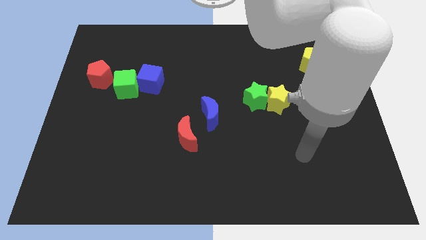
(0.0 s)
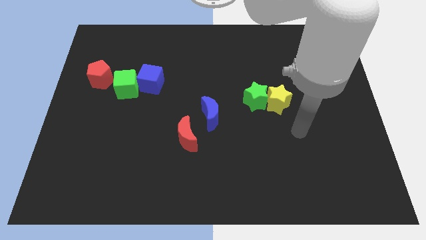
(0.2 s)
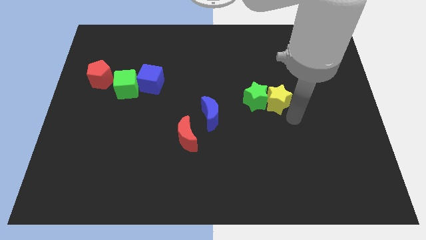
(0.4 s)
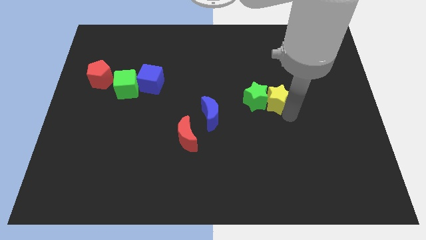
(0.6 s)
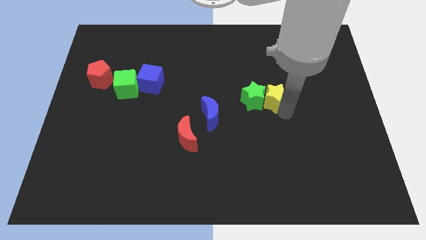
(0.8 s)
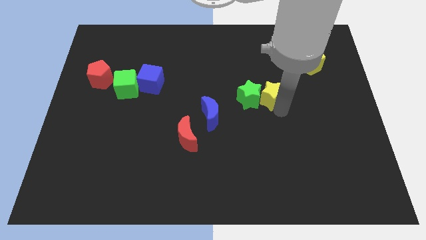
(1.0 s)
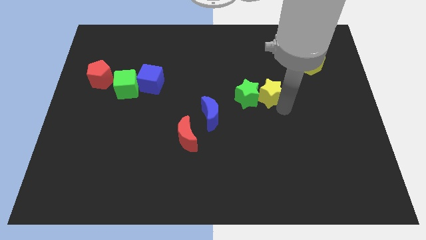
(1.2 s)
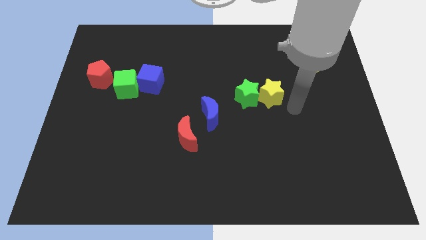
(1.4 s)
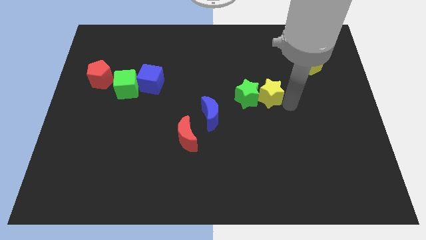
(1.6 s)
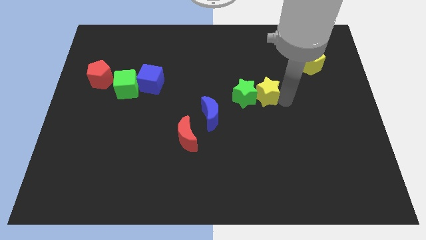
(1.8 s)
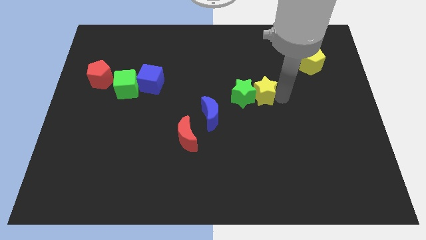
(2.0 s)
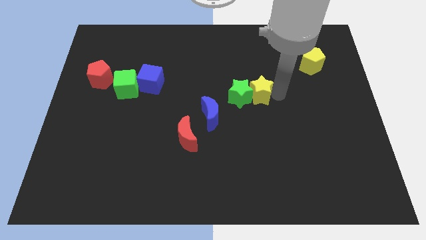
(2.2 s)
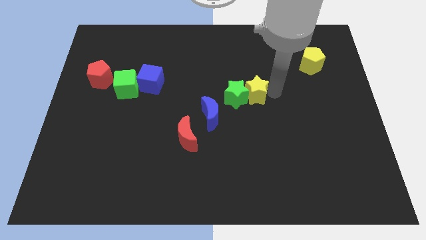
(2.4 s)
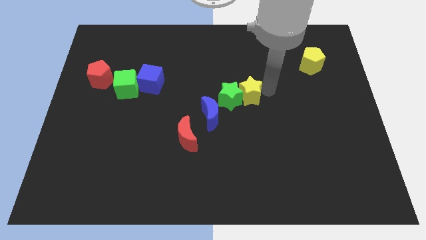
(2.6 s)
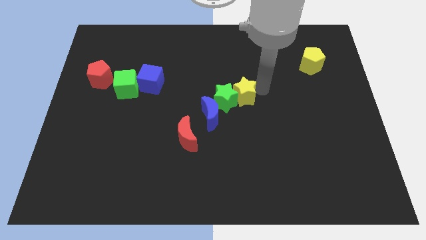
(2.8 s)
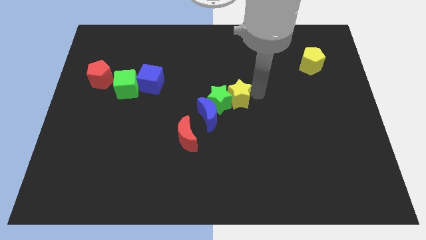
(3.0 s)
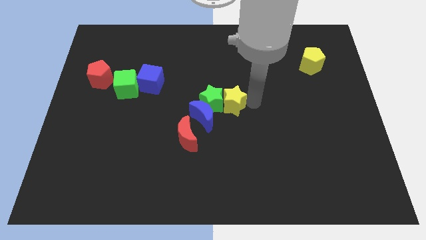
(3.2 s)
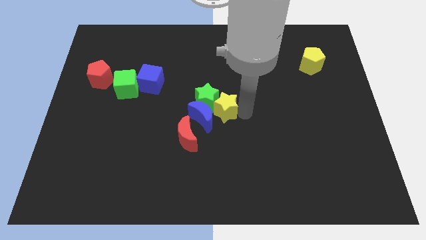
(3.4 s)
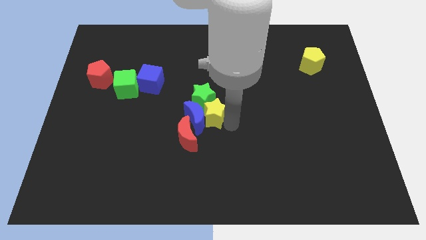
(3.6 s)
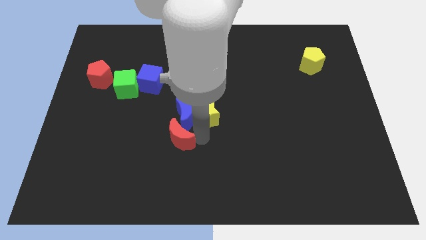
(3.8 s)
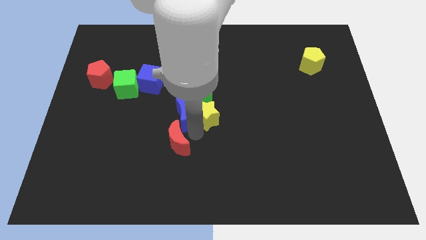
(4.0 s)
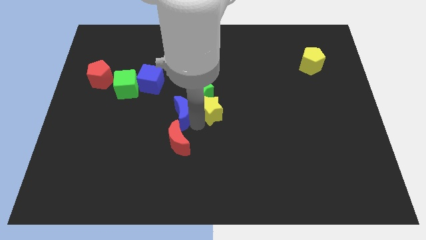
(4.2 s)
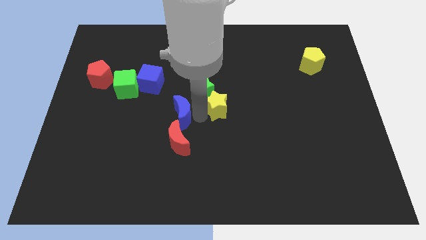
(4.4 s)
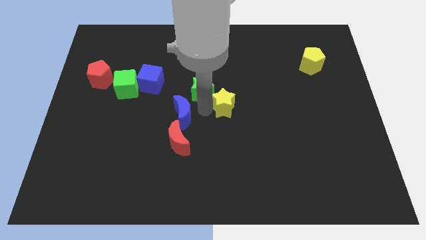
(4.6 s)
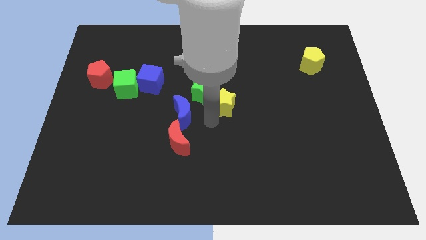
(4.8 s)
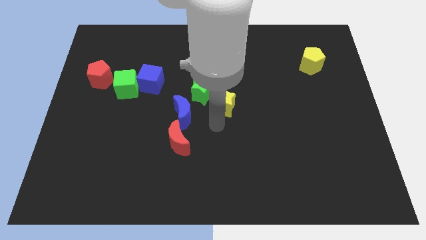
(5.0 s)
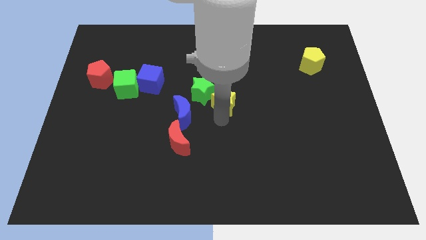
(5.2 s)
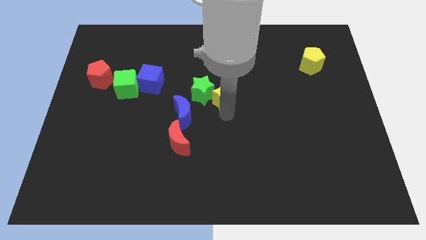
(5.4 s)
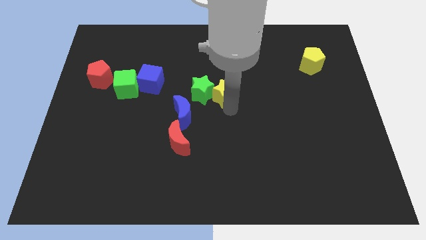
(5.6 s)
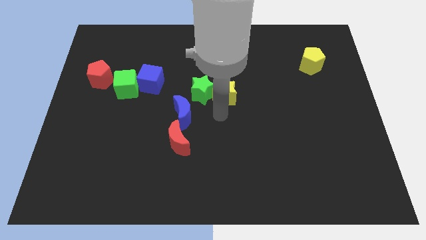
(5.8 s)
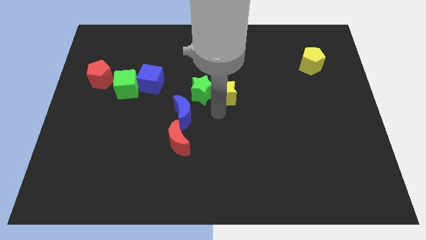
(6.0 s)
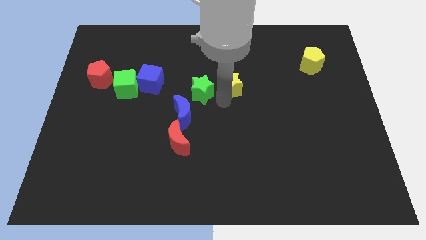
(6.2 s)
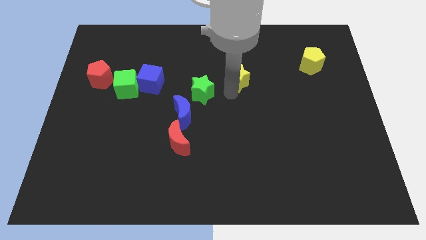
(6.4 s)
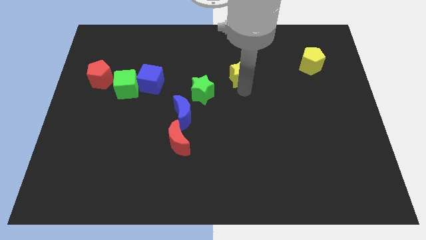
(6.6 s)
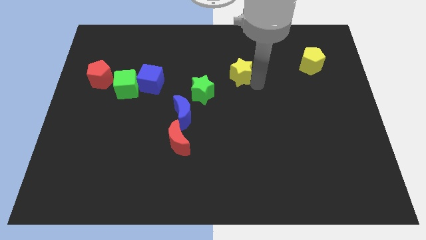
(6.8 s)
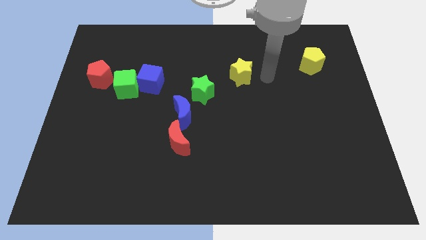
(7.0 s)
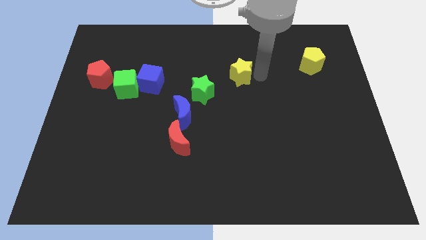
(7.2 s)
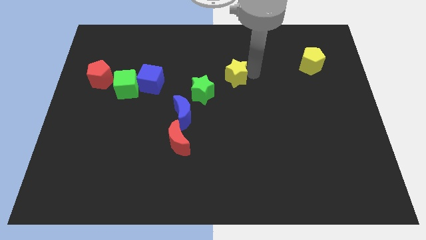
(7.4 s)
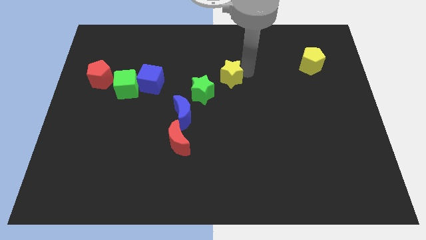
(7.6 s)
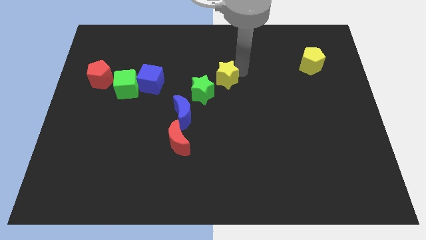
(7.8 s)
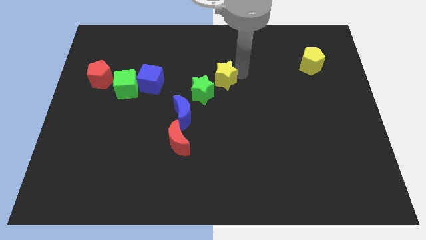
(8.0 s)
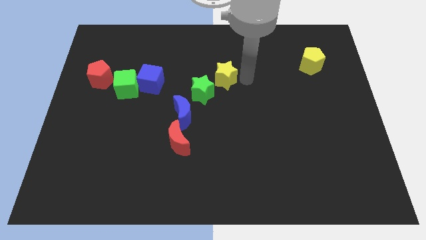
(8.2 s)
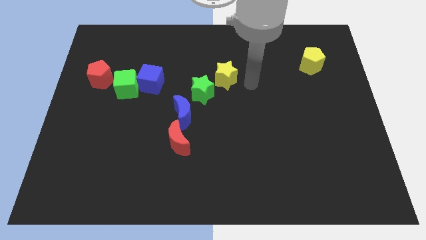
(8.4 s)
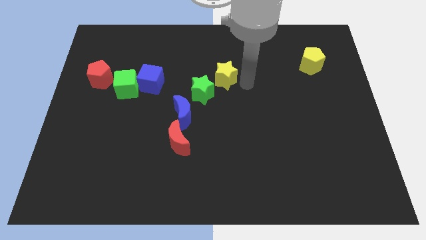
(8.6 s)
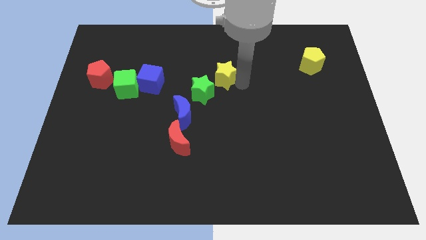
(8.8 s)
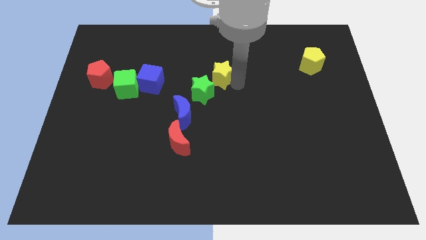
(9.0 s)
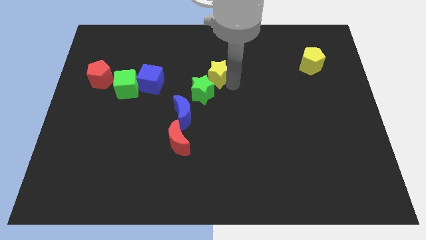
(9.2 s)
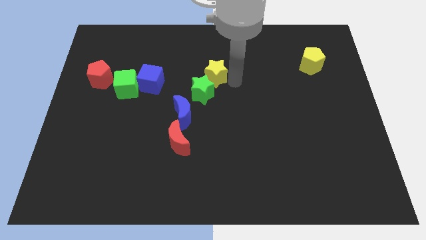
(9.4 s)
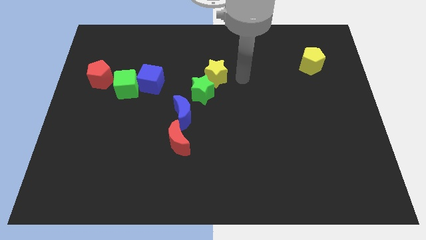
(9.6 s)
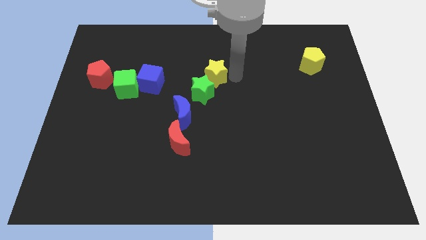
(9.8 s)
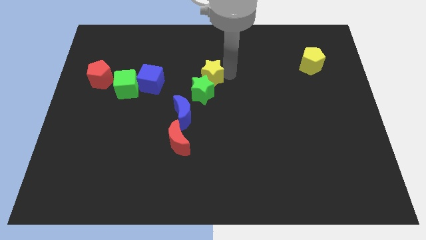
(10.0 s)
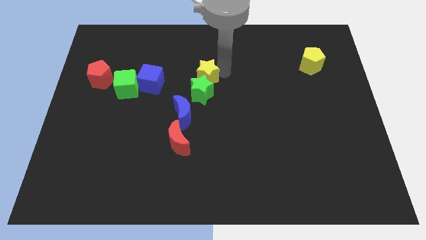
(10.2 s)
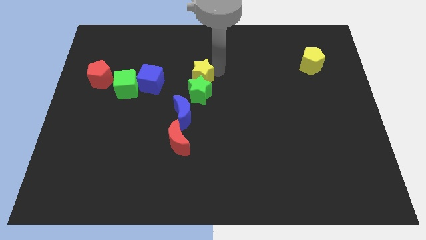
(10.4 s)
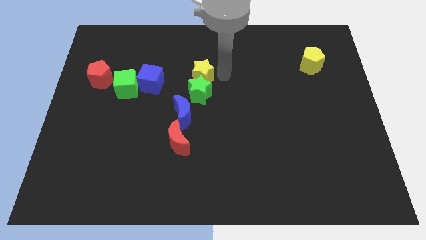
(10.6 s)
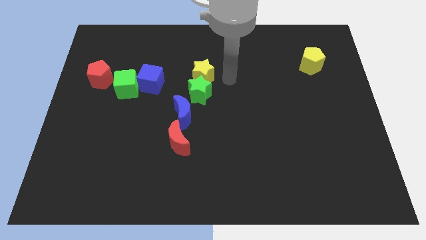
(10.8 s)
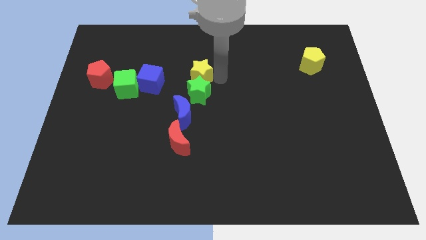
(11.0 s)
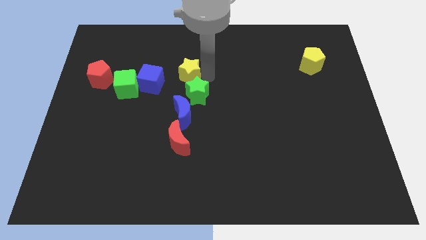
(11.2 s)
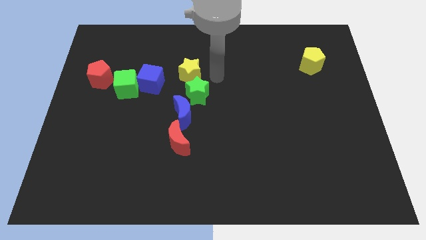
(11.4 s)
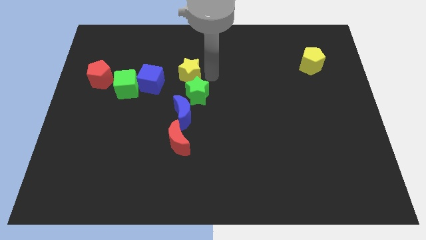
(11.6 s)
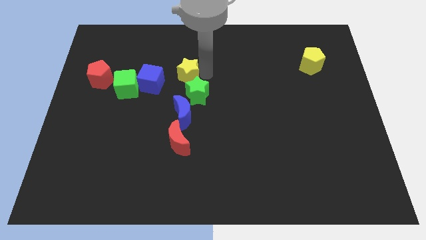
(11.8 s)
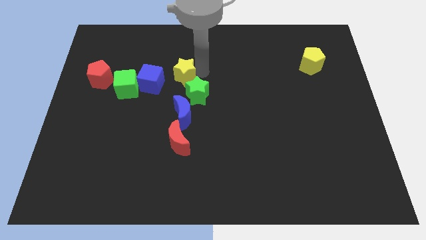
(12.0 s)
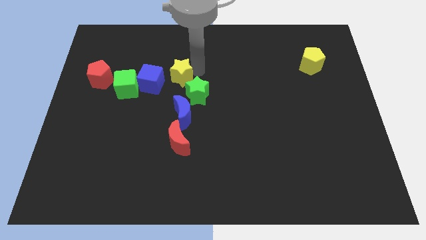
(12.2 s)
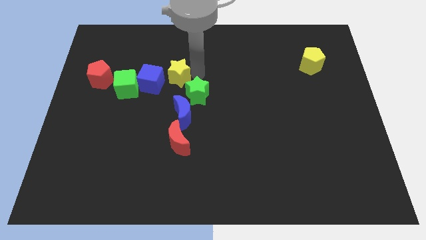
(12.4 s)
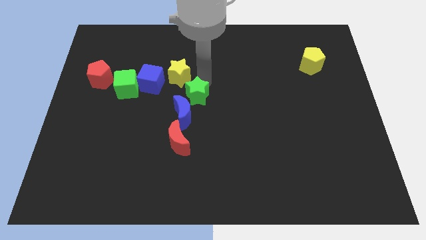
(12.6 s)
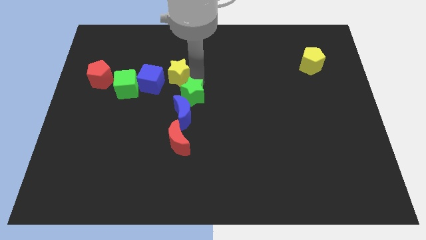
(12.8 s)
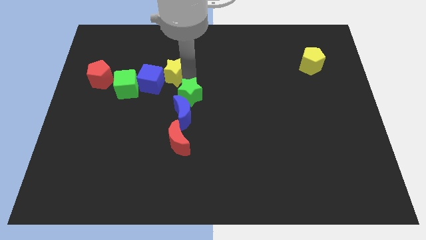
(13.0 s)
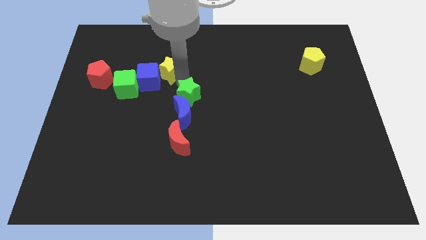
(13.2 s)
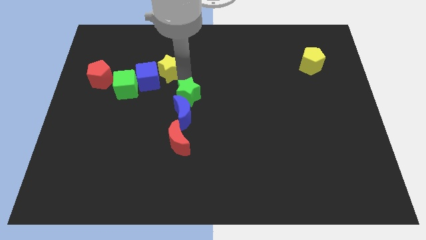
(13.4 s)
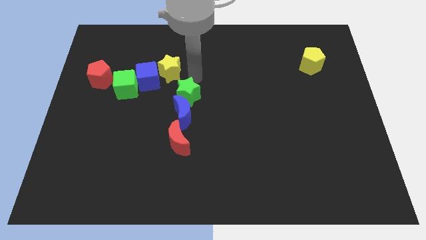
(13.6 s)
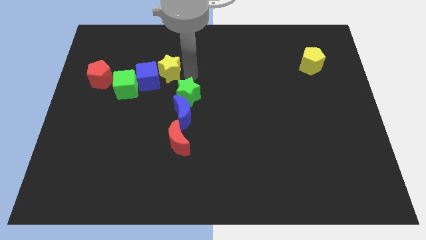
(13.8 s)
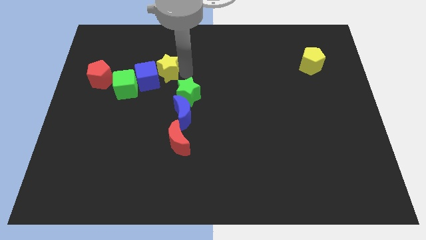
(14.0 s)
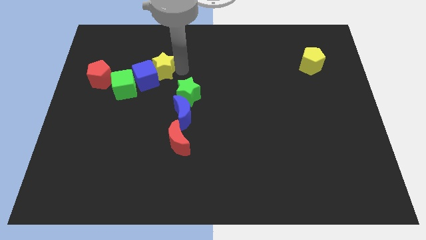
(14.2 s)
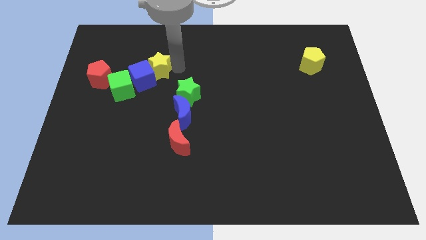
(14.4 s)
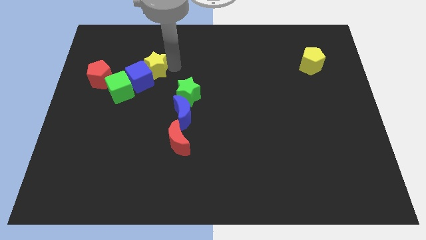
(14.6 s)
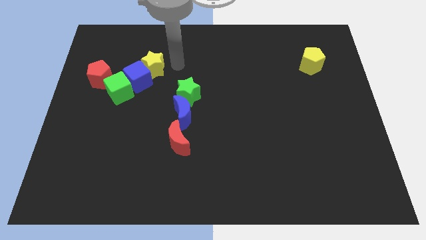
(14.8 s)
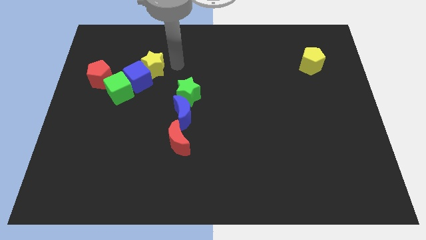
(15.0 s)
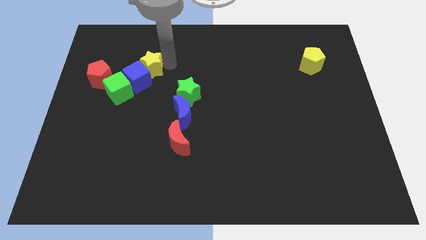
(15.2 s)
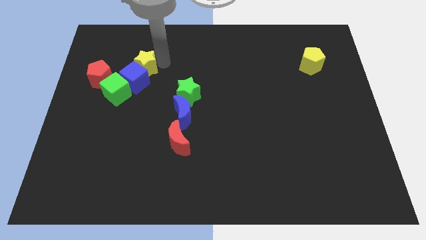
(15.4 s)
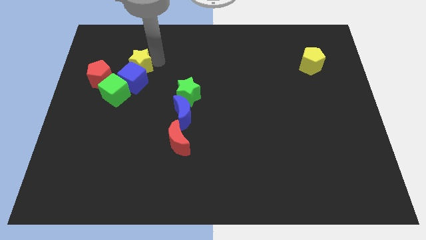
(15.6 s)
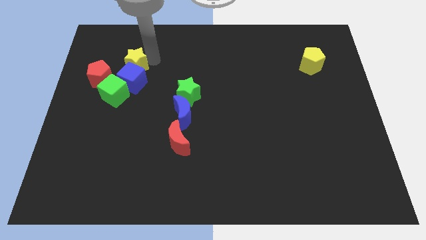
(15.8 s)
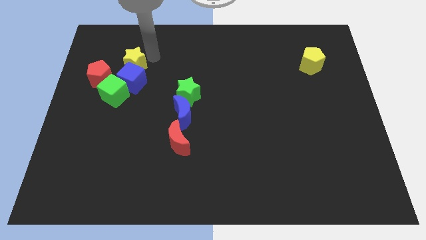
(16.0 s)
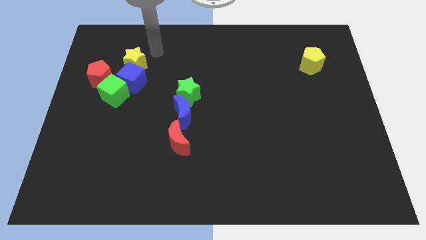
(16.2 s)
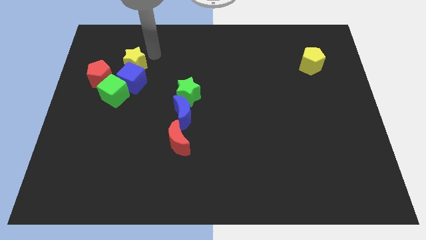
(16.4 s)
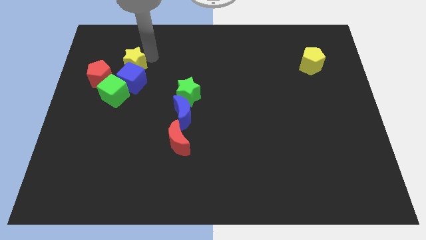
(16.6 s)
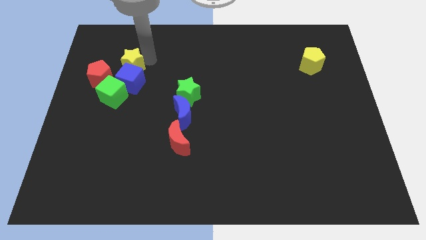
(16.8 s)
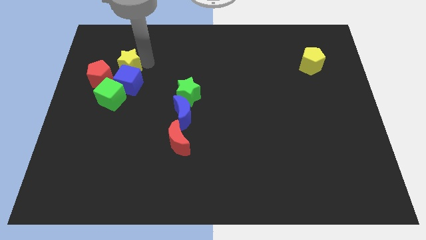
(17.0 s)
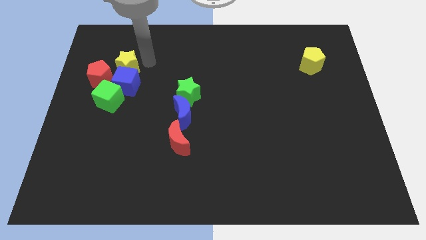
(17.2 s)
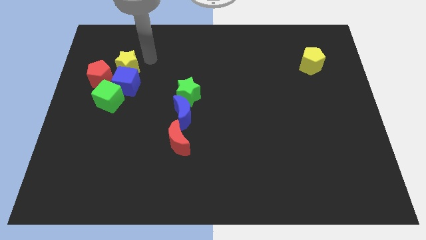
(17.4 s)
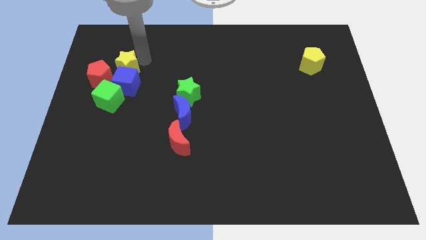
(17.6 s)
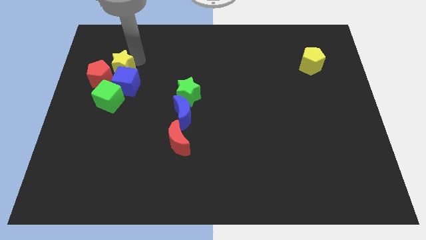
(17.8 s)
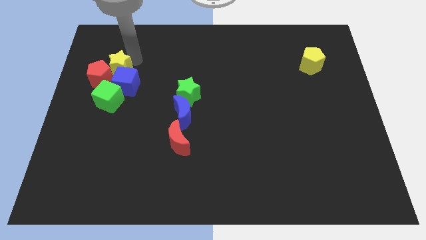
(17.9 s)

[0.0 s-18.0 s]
push the yellow star to the red pentagon
